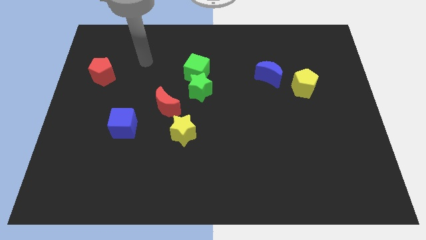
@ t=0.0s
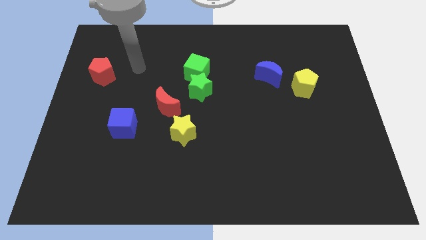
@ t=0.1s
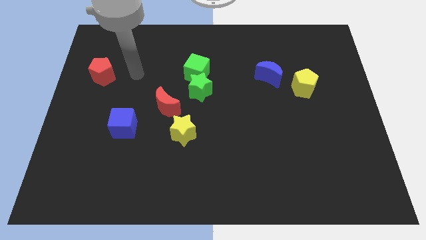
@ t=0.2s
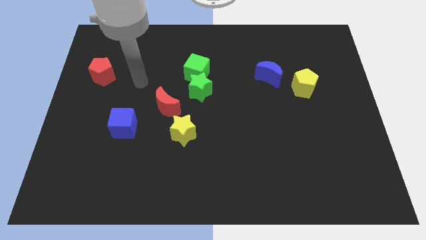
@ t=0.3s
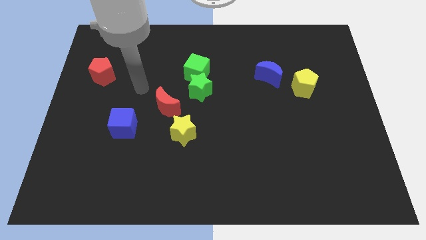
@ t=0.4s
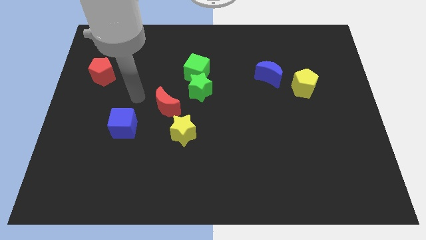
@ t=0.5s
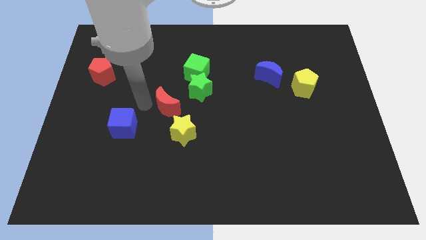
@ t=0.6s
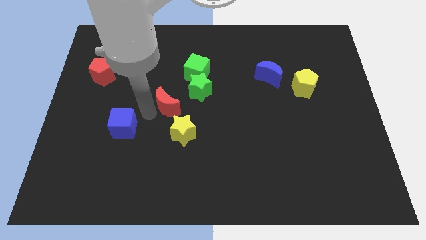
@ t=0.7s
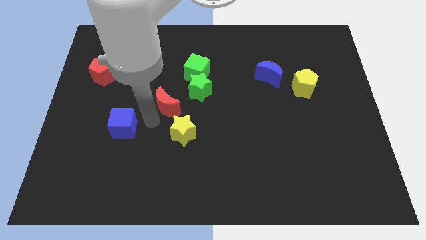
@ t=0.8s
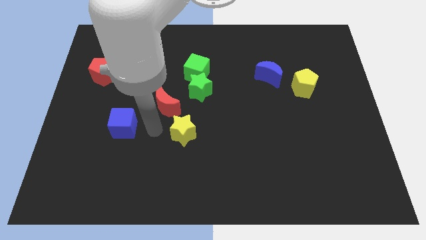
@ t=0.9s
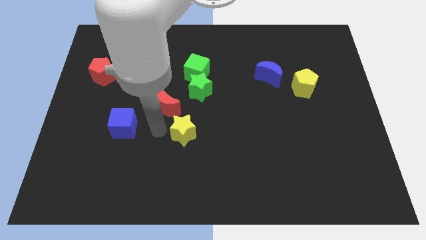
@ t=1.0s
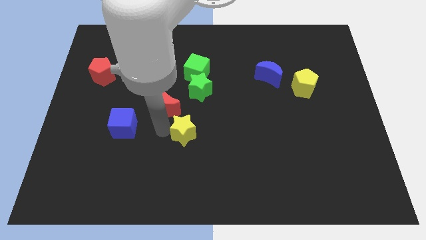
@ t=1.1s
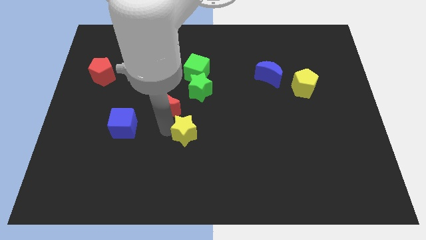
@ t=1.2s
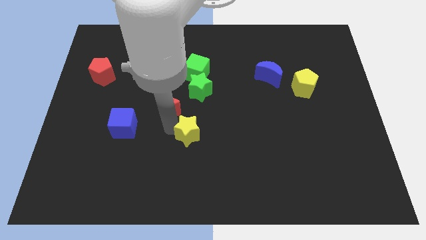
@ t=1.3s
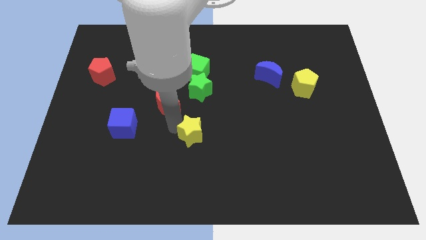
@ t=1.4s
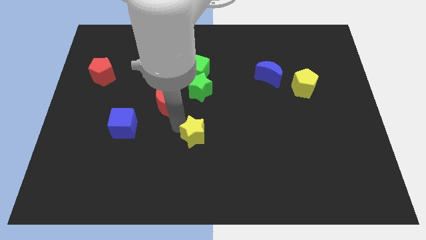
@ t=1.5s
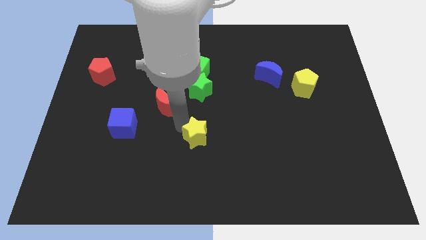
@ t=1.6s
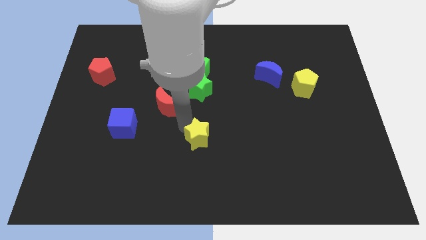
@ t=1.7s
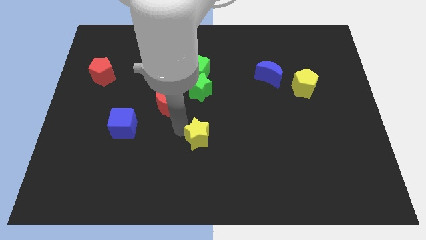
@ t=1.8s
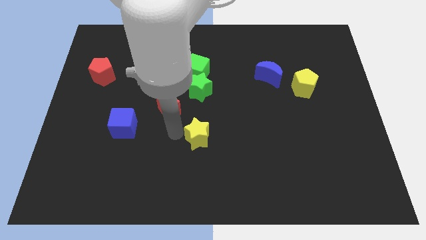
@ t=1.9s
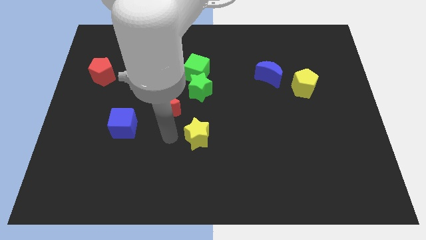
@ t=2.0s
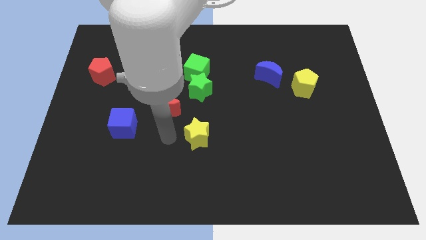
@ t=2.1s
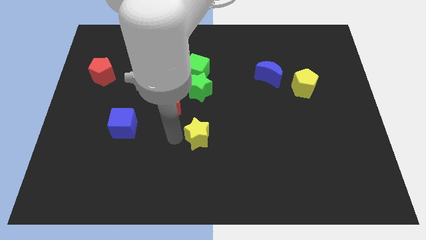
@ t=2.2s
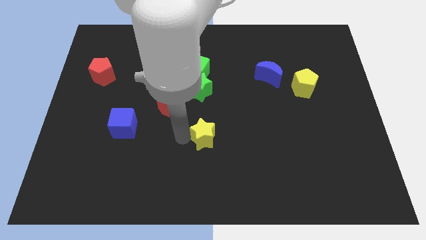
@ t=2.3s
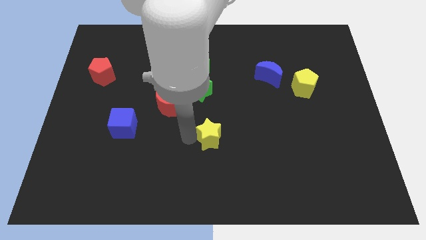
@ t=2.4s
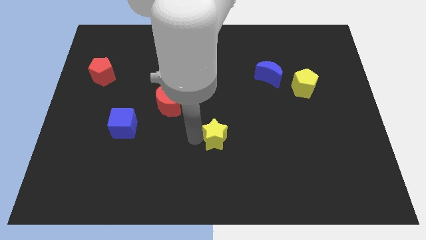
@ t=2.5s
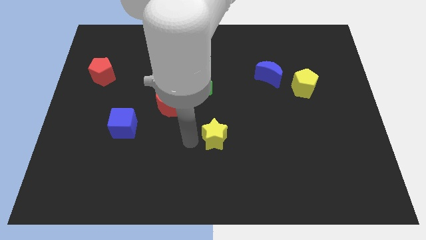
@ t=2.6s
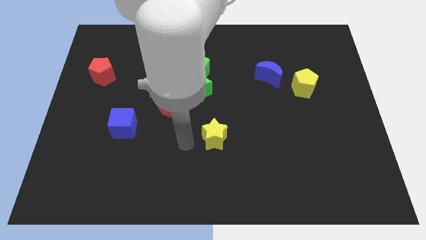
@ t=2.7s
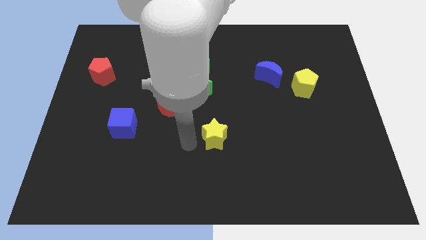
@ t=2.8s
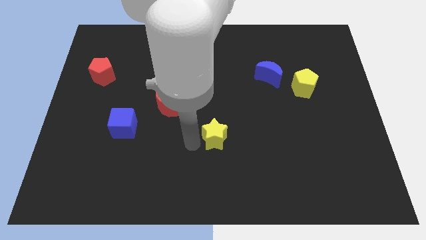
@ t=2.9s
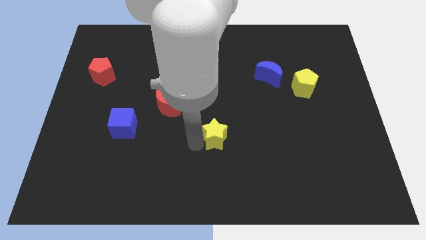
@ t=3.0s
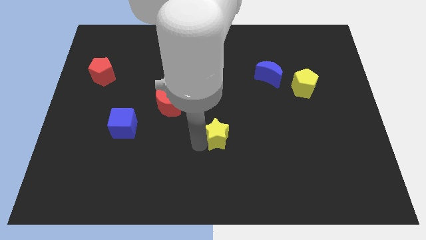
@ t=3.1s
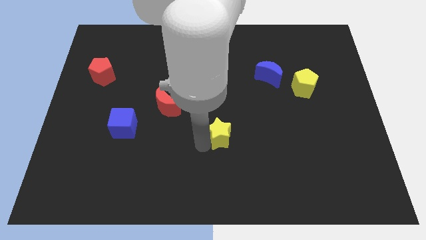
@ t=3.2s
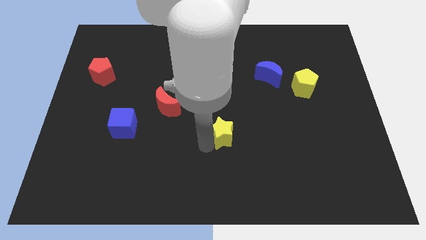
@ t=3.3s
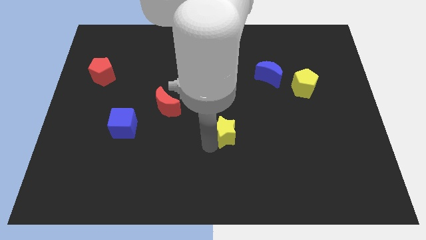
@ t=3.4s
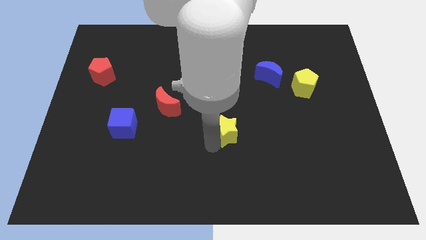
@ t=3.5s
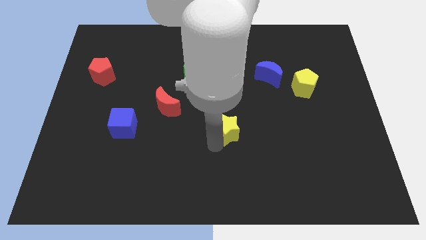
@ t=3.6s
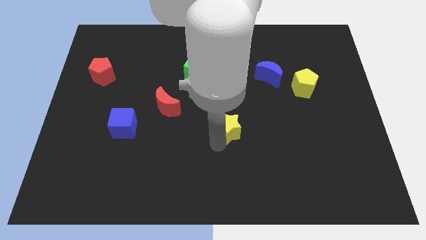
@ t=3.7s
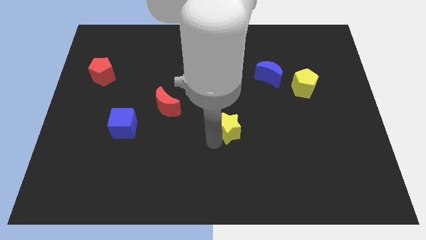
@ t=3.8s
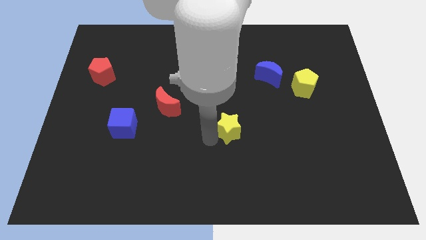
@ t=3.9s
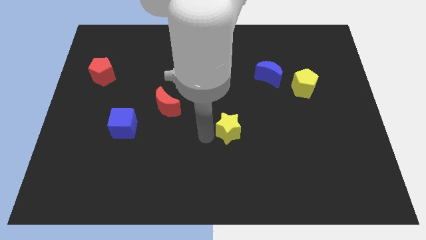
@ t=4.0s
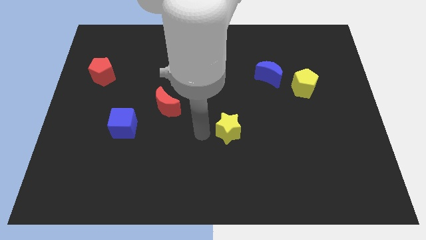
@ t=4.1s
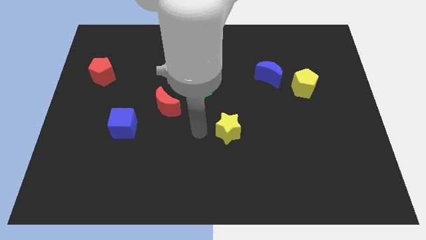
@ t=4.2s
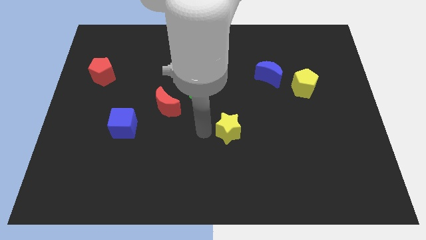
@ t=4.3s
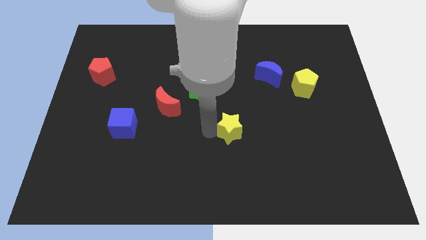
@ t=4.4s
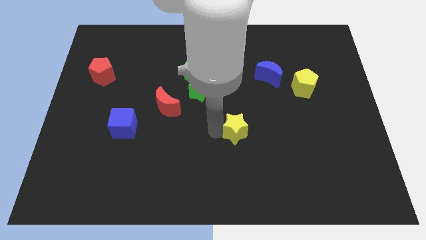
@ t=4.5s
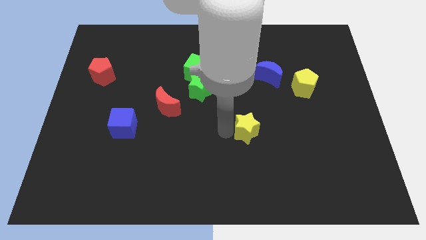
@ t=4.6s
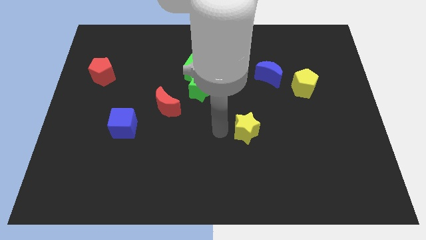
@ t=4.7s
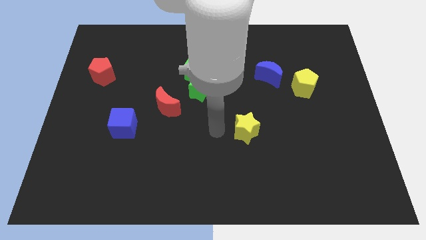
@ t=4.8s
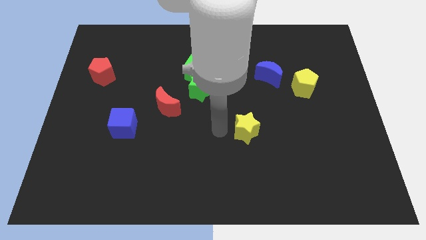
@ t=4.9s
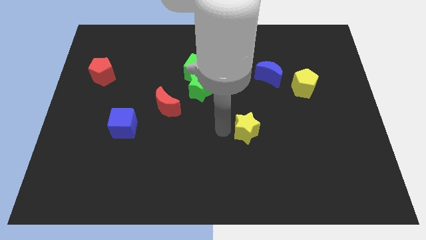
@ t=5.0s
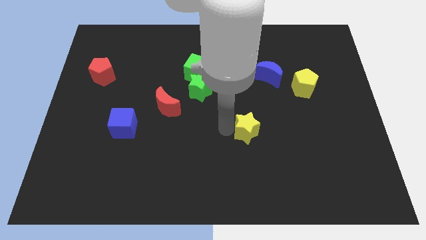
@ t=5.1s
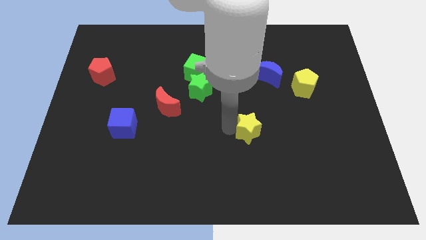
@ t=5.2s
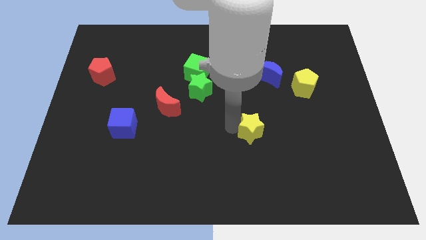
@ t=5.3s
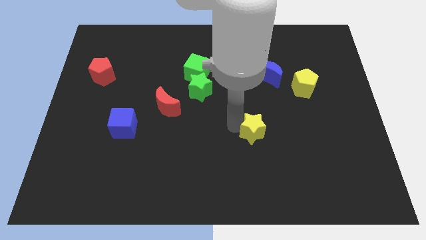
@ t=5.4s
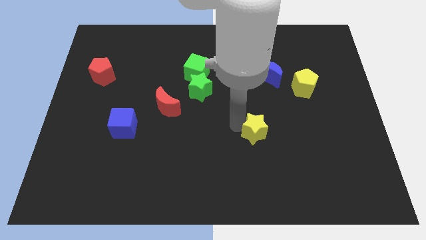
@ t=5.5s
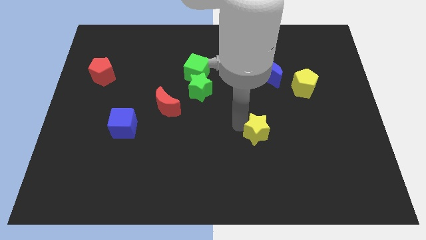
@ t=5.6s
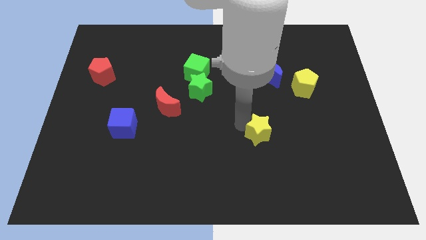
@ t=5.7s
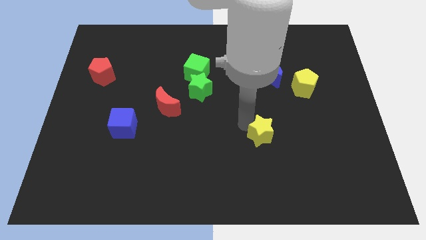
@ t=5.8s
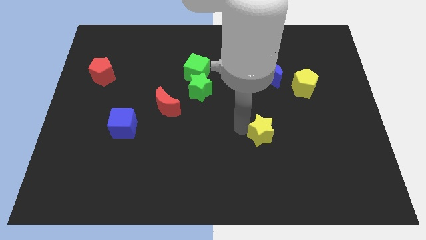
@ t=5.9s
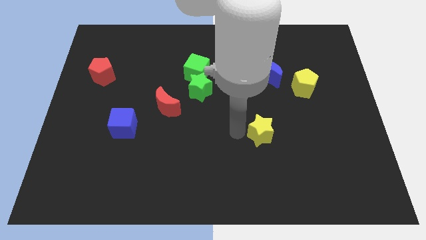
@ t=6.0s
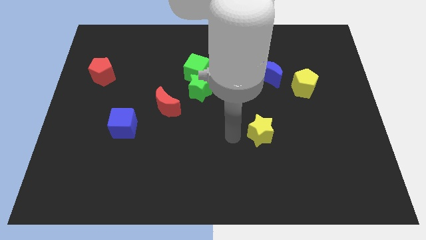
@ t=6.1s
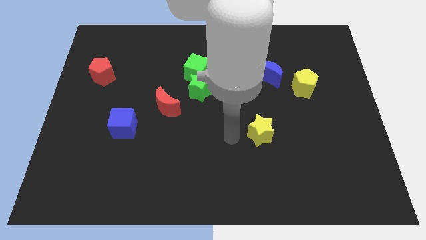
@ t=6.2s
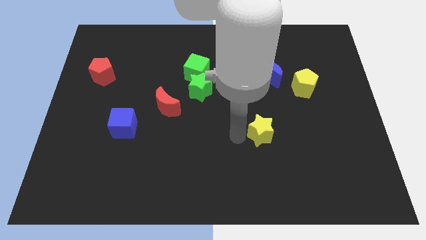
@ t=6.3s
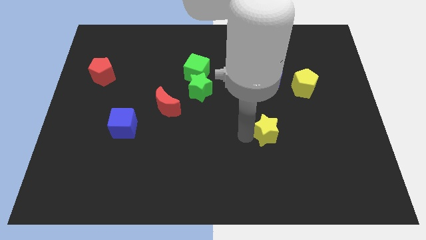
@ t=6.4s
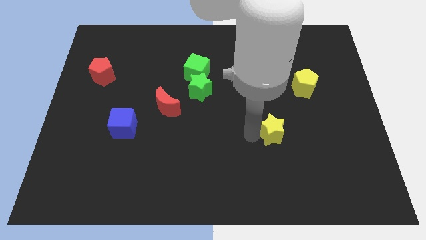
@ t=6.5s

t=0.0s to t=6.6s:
slide the yellow star to the right

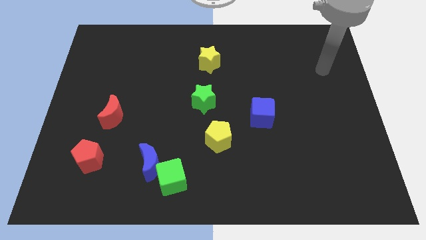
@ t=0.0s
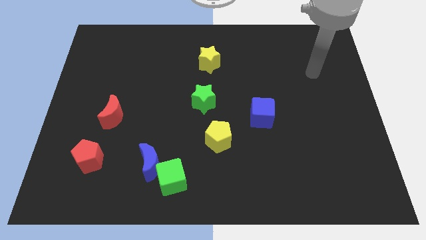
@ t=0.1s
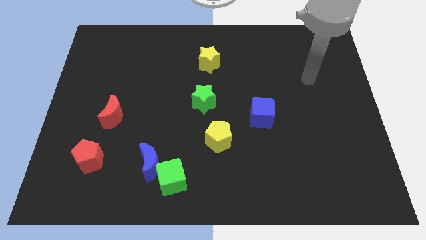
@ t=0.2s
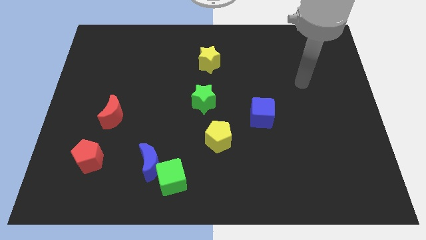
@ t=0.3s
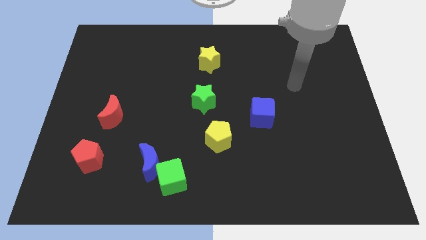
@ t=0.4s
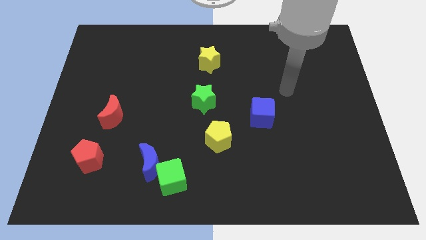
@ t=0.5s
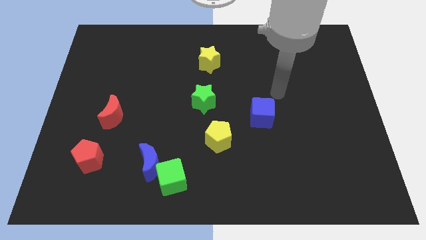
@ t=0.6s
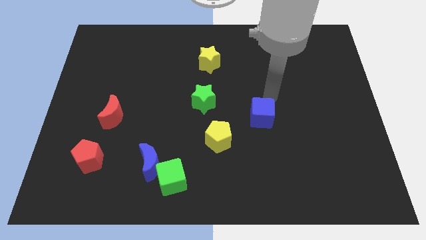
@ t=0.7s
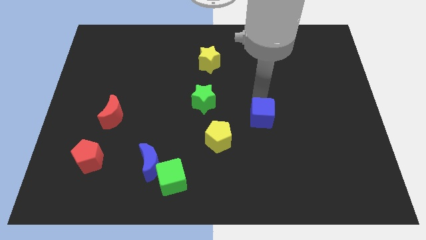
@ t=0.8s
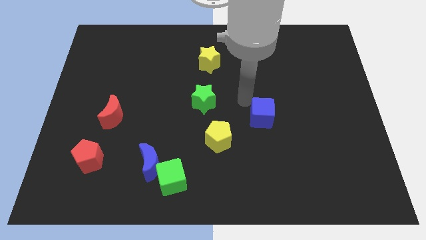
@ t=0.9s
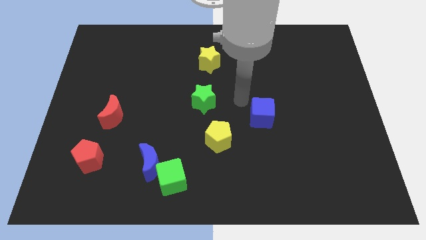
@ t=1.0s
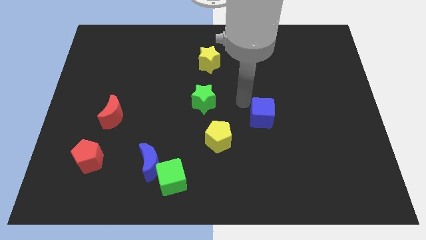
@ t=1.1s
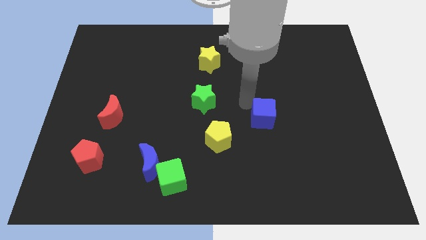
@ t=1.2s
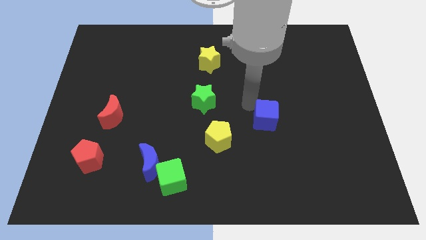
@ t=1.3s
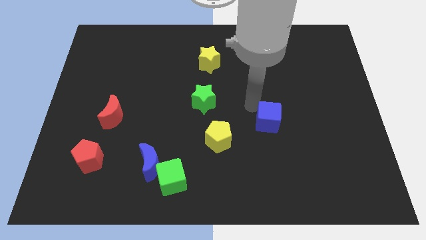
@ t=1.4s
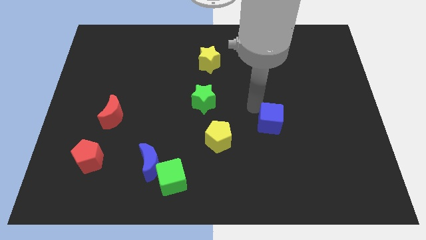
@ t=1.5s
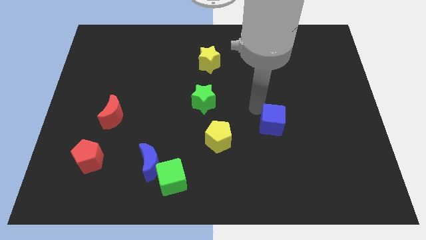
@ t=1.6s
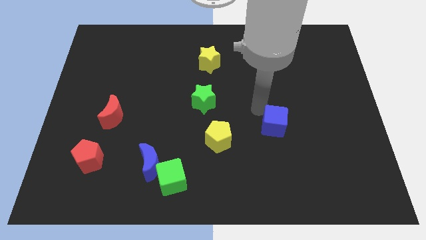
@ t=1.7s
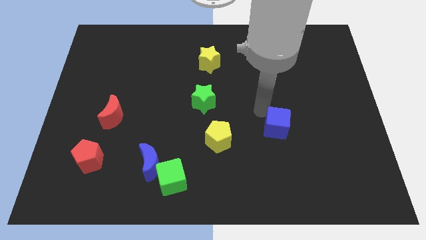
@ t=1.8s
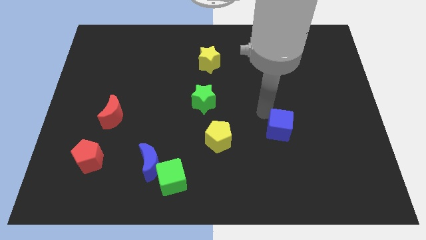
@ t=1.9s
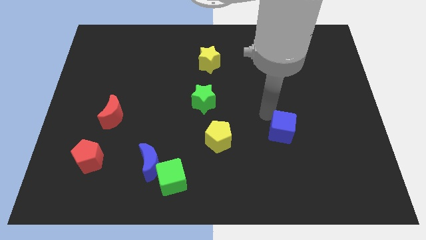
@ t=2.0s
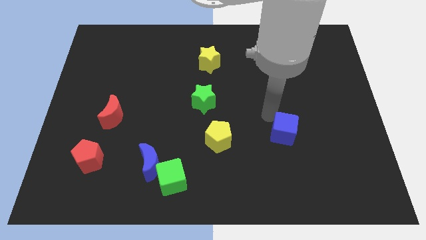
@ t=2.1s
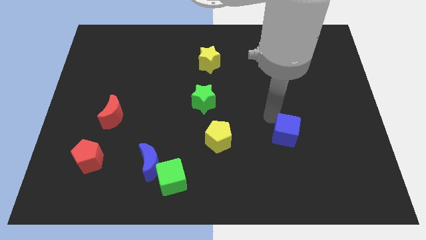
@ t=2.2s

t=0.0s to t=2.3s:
push the blue cube a little bit downwards and to the right diagonally
